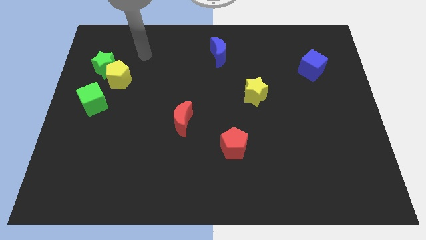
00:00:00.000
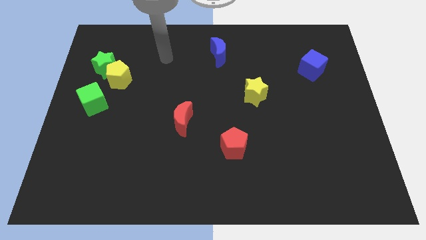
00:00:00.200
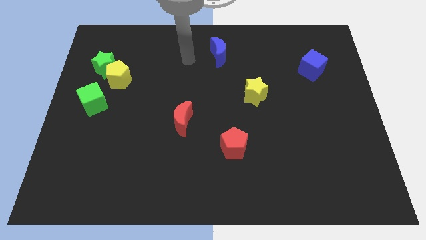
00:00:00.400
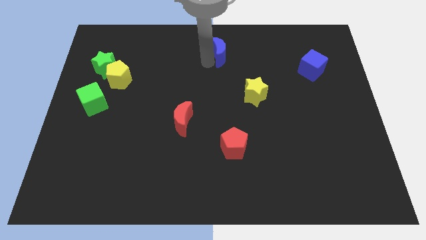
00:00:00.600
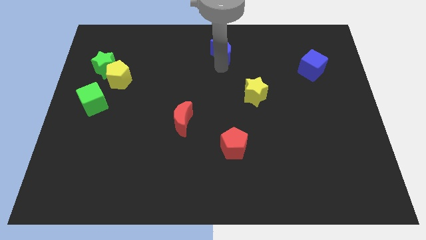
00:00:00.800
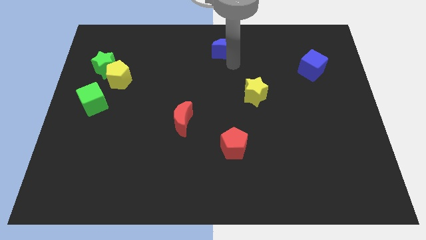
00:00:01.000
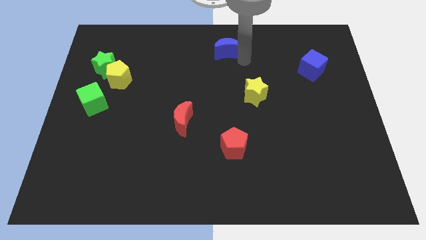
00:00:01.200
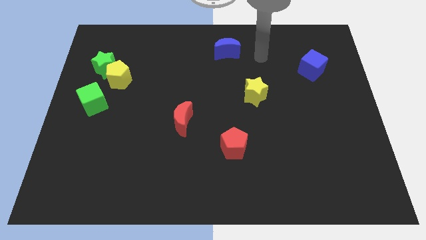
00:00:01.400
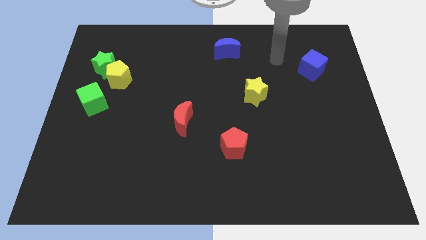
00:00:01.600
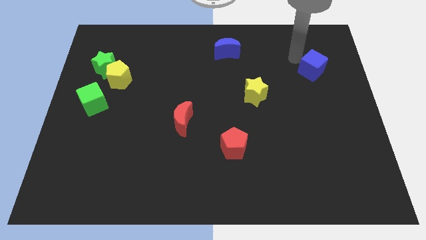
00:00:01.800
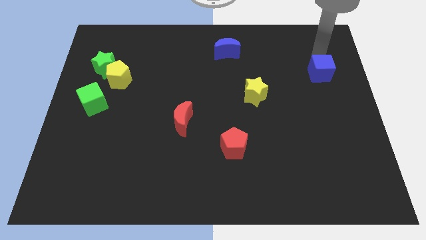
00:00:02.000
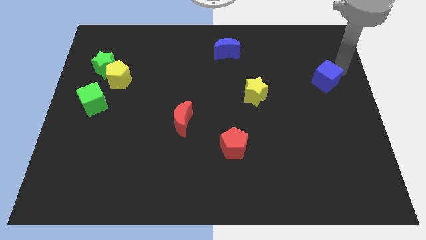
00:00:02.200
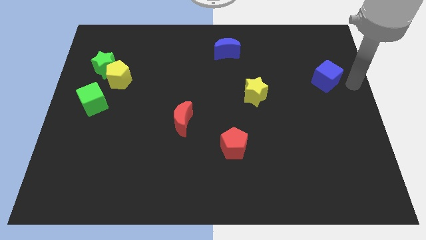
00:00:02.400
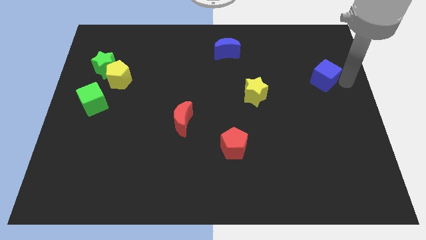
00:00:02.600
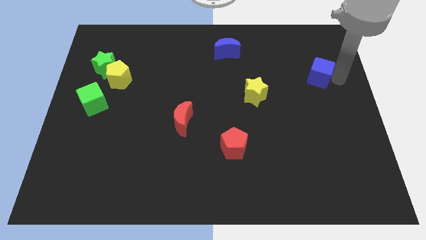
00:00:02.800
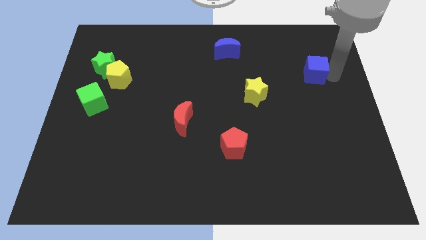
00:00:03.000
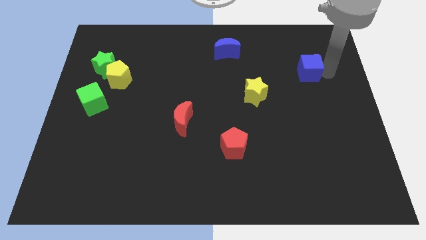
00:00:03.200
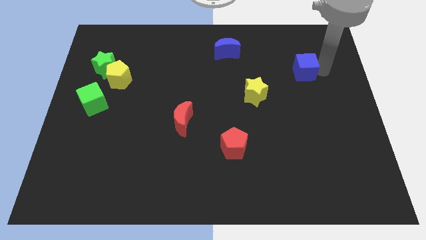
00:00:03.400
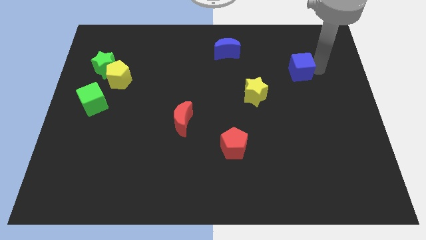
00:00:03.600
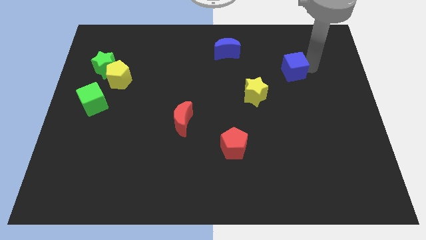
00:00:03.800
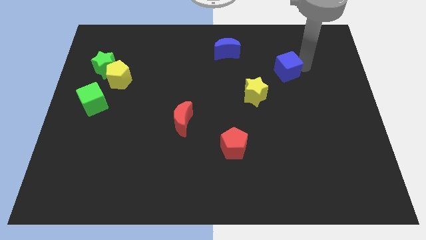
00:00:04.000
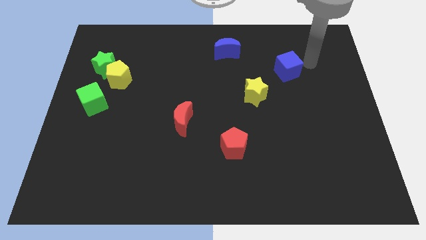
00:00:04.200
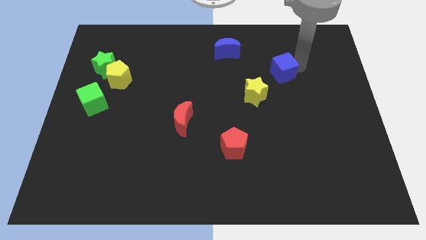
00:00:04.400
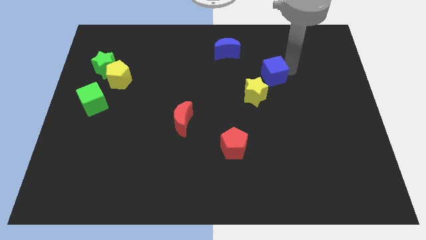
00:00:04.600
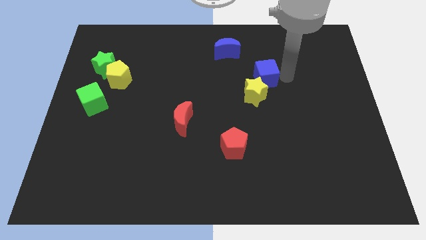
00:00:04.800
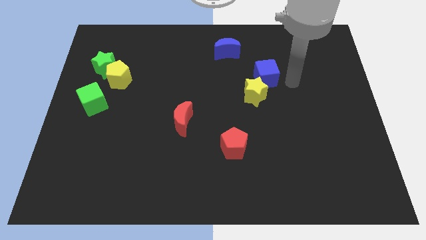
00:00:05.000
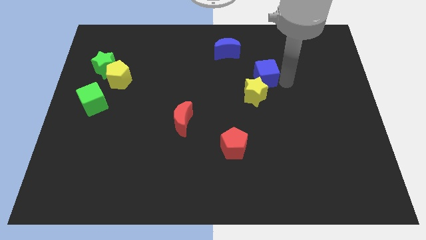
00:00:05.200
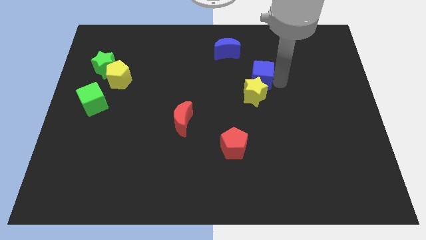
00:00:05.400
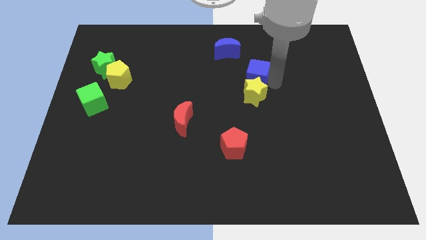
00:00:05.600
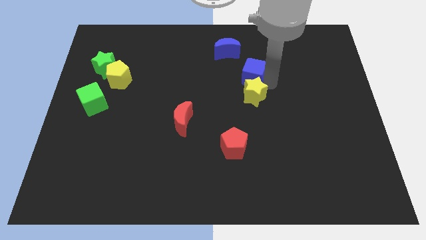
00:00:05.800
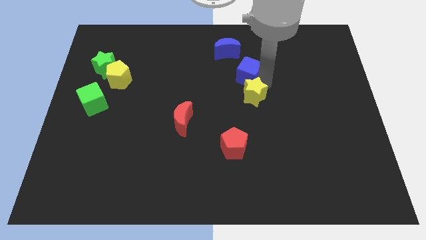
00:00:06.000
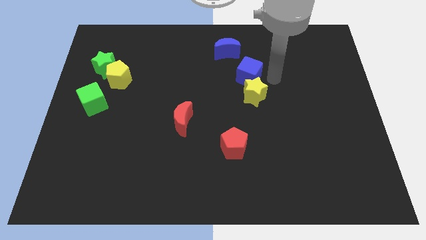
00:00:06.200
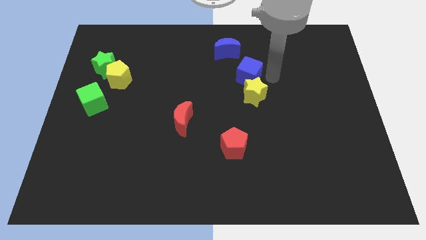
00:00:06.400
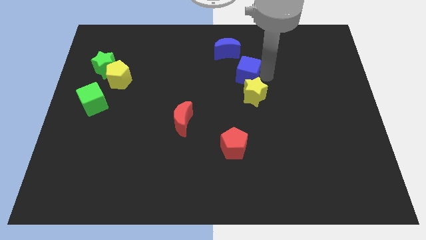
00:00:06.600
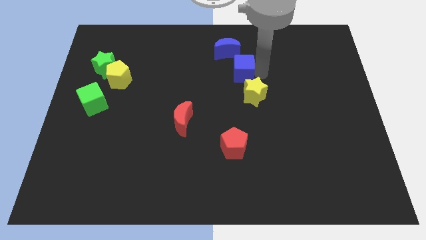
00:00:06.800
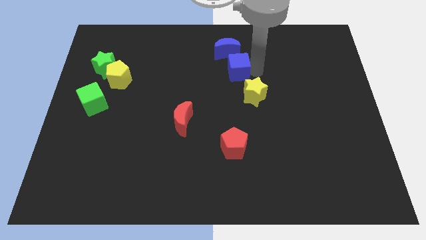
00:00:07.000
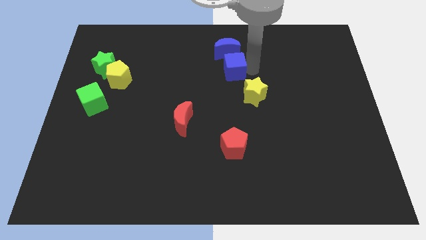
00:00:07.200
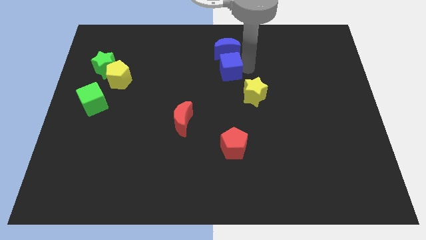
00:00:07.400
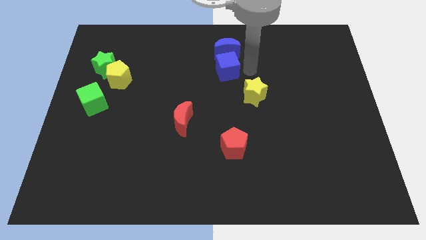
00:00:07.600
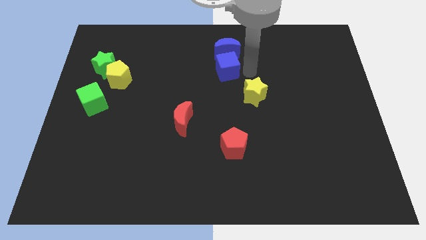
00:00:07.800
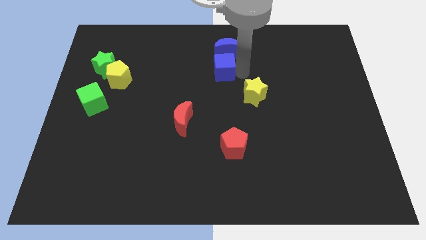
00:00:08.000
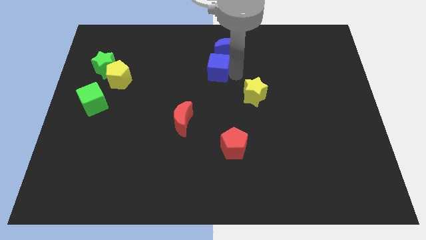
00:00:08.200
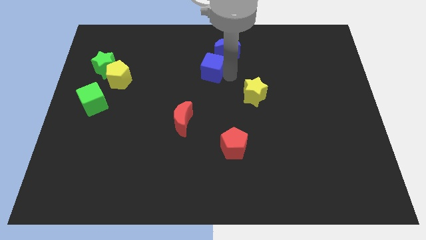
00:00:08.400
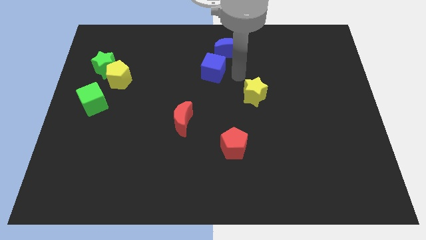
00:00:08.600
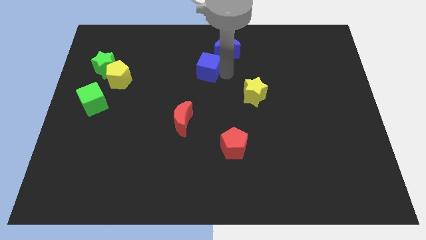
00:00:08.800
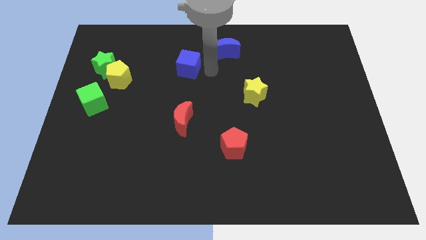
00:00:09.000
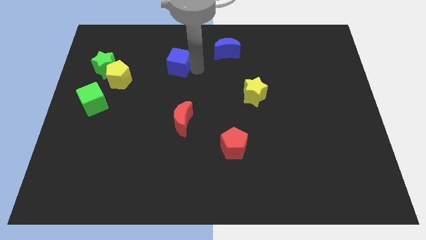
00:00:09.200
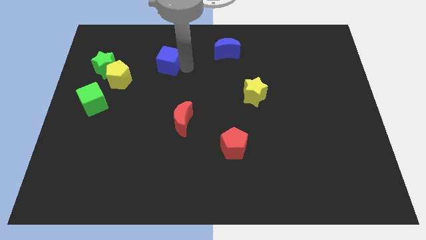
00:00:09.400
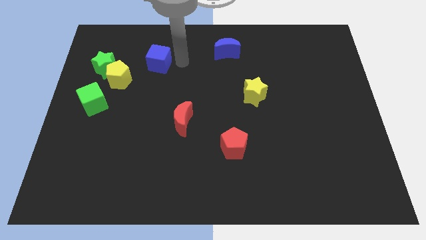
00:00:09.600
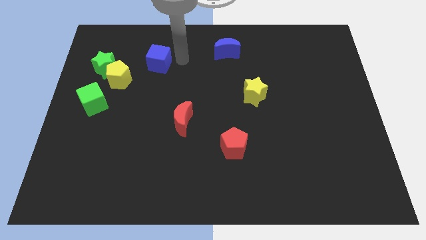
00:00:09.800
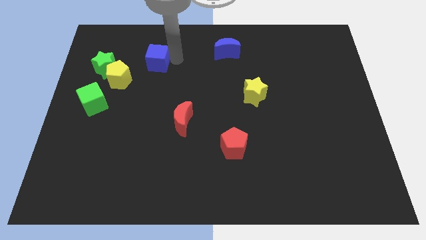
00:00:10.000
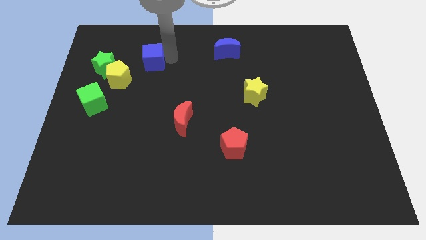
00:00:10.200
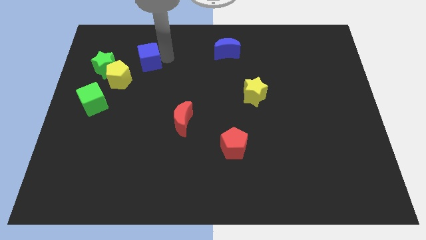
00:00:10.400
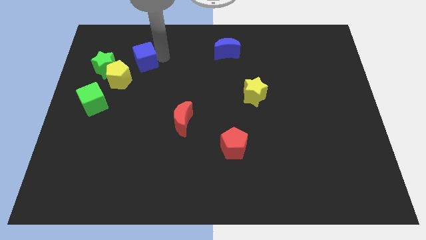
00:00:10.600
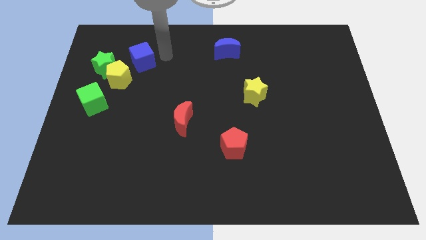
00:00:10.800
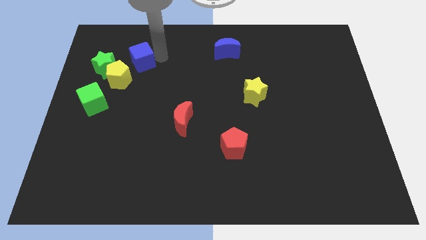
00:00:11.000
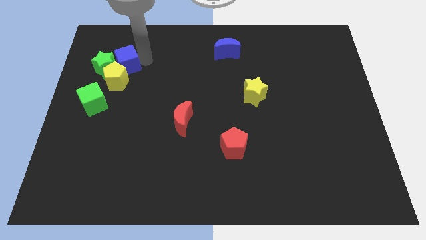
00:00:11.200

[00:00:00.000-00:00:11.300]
move the blue cube towards the green star

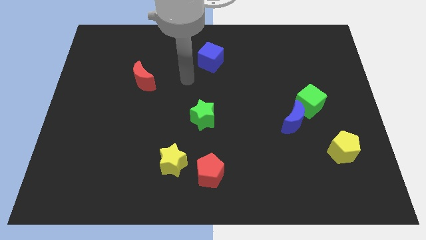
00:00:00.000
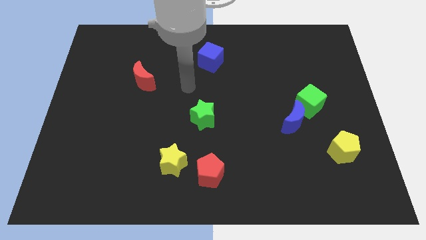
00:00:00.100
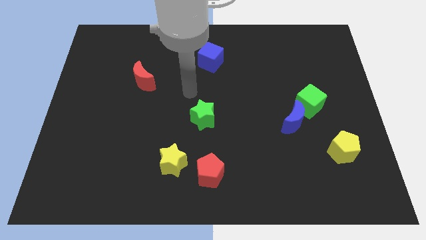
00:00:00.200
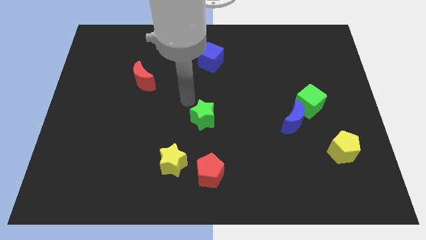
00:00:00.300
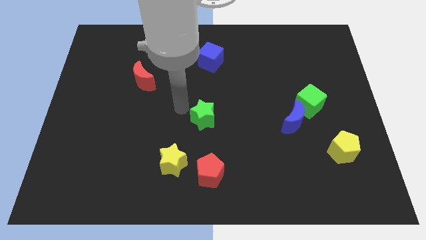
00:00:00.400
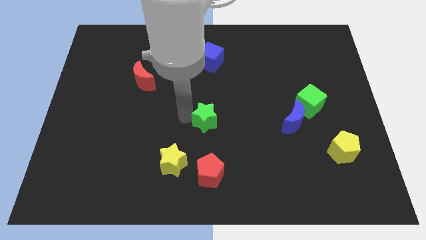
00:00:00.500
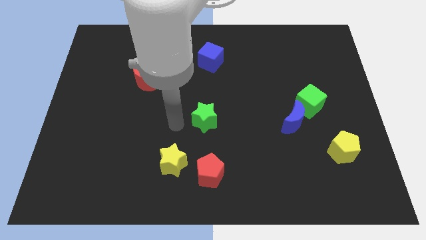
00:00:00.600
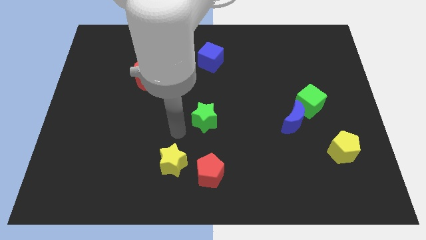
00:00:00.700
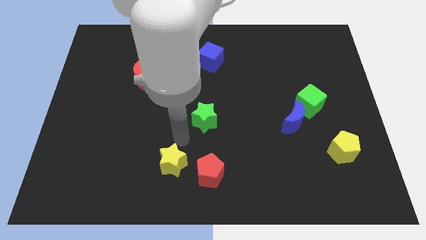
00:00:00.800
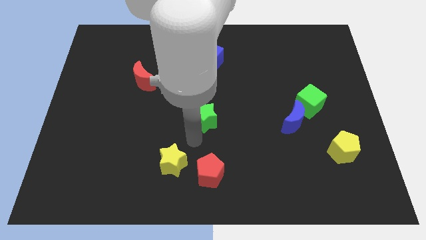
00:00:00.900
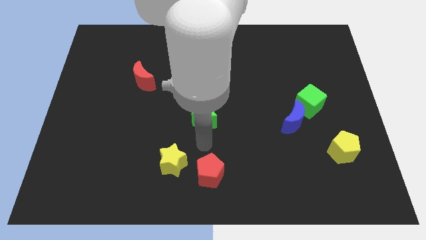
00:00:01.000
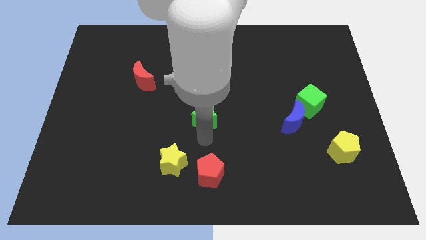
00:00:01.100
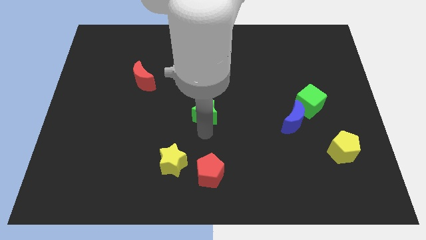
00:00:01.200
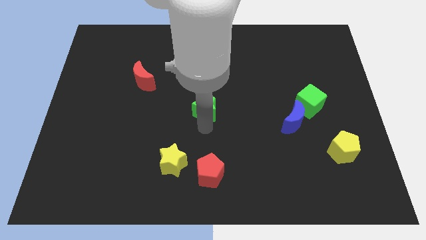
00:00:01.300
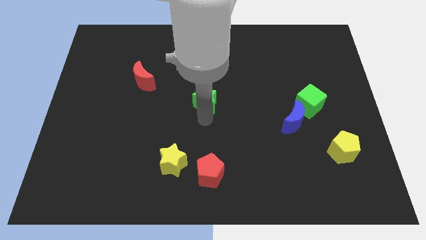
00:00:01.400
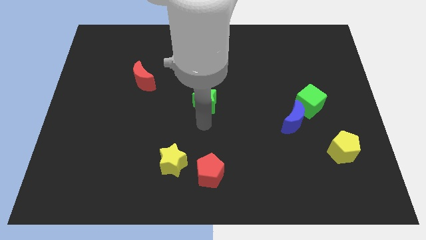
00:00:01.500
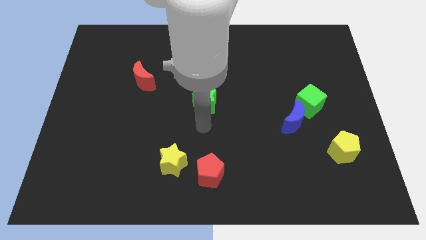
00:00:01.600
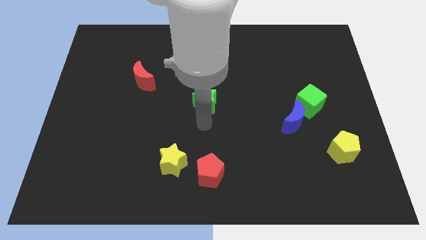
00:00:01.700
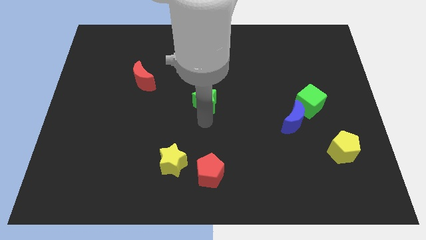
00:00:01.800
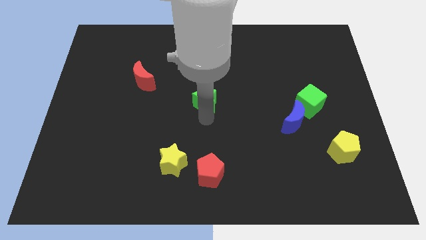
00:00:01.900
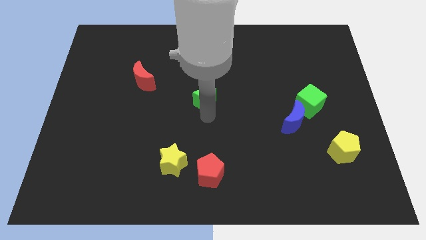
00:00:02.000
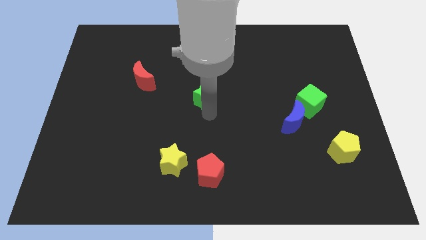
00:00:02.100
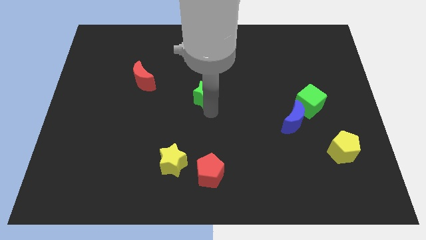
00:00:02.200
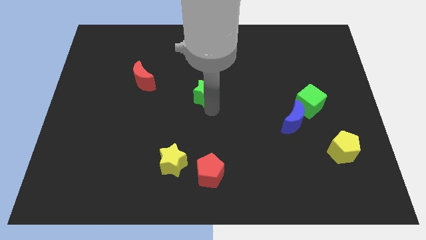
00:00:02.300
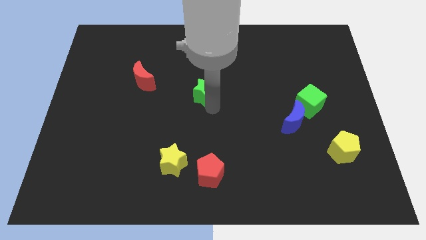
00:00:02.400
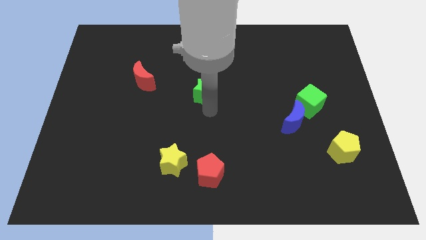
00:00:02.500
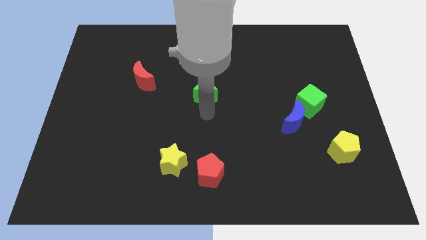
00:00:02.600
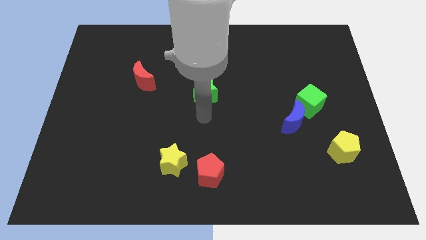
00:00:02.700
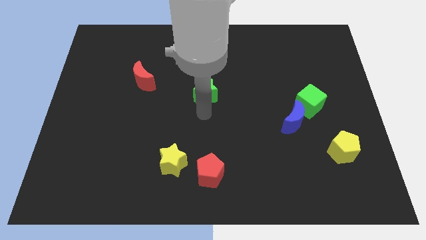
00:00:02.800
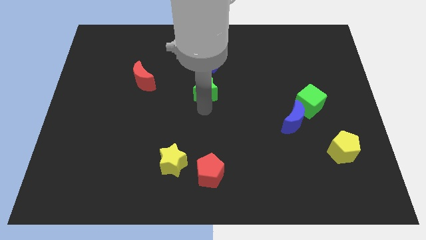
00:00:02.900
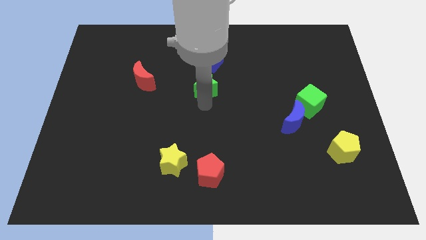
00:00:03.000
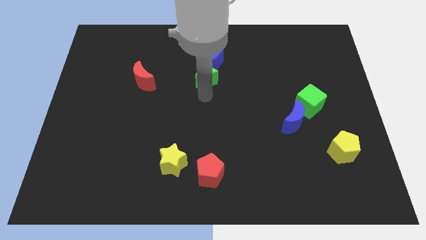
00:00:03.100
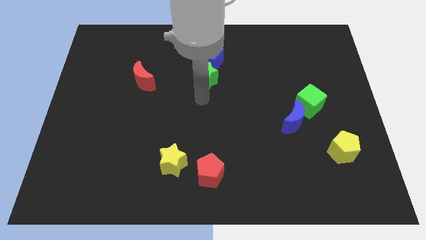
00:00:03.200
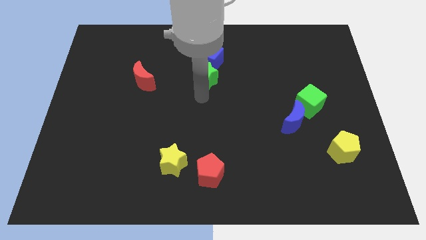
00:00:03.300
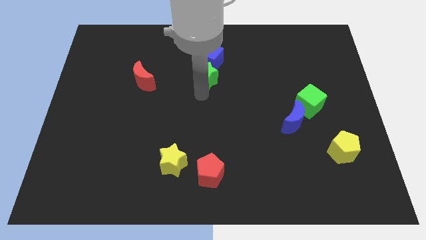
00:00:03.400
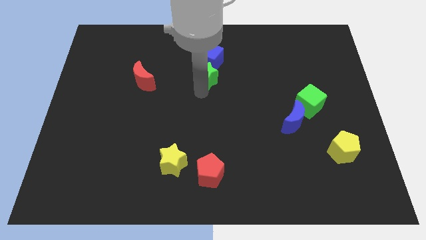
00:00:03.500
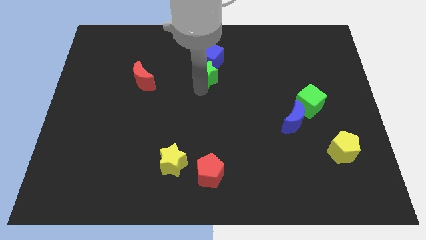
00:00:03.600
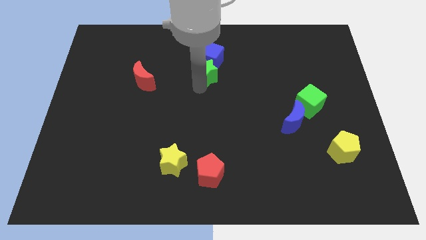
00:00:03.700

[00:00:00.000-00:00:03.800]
slide the green star to the blue cube
